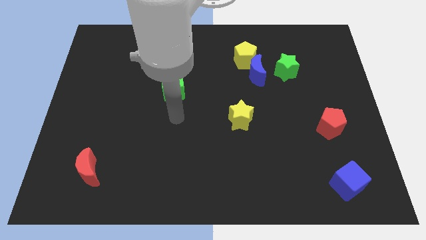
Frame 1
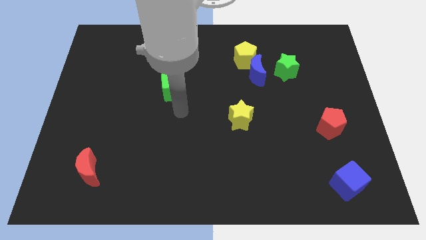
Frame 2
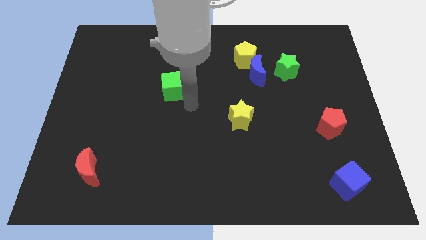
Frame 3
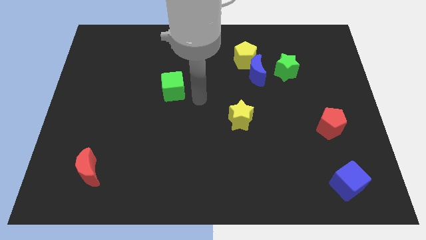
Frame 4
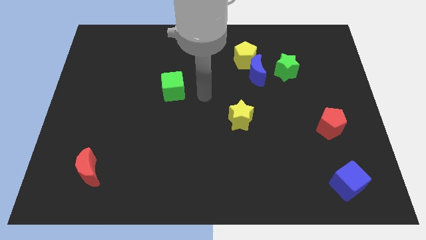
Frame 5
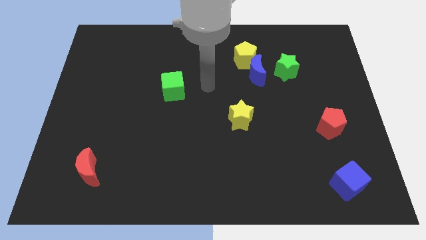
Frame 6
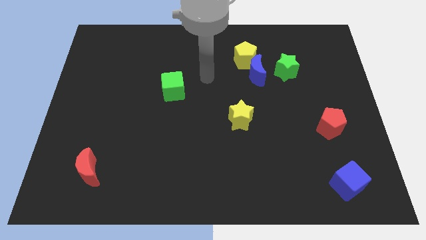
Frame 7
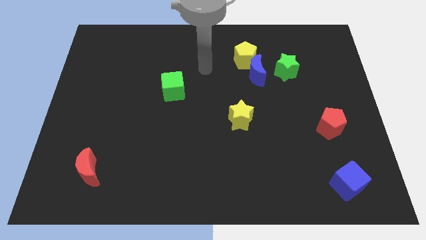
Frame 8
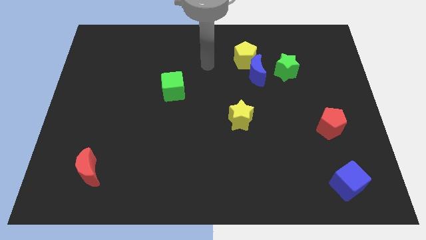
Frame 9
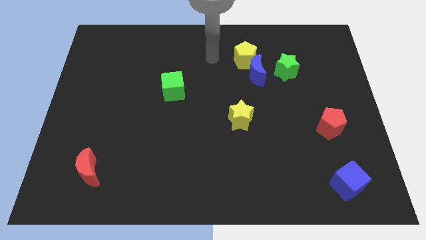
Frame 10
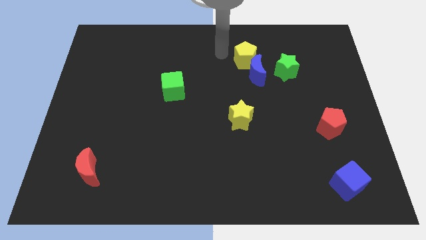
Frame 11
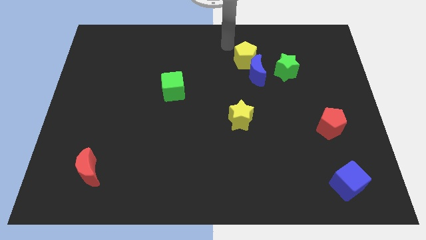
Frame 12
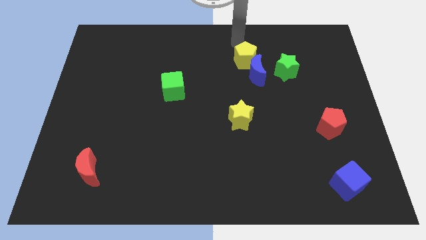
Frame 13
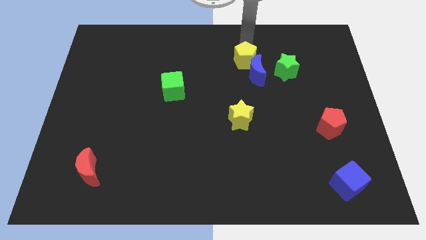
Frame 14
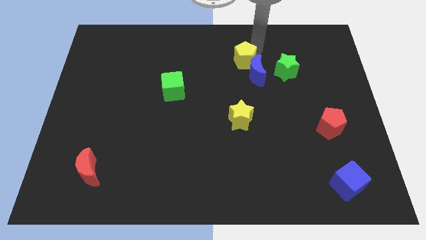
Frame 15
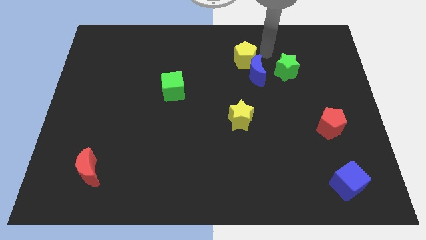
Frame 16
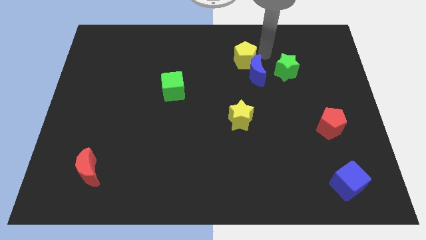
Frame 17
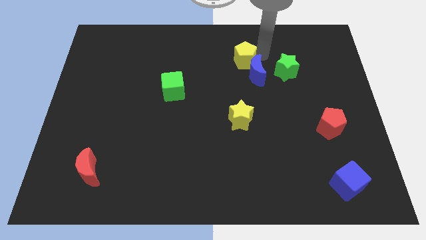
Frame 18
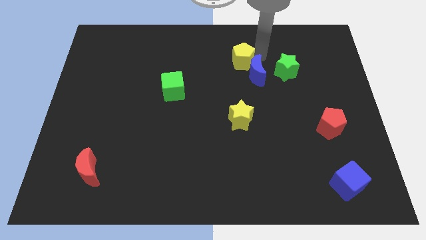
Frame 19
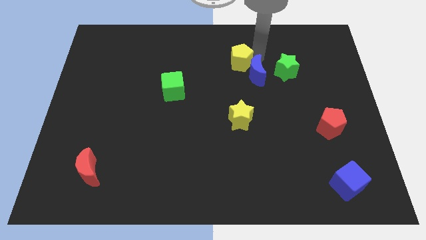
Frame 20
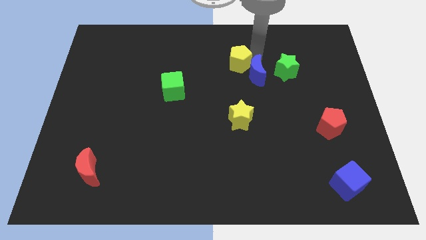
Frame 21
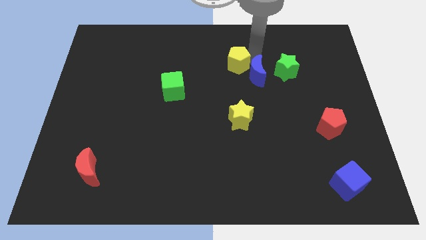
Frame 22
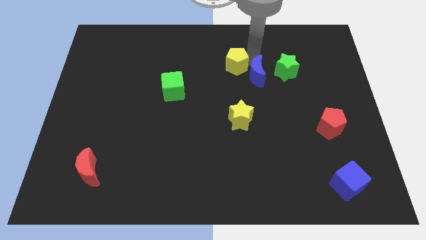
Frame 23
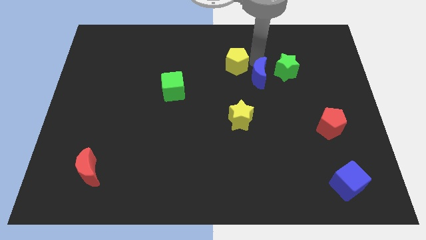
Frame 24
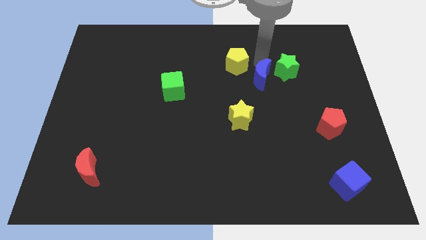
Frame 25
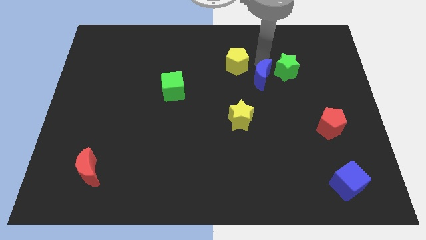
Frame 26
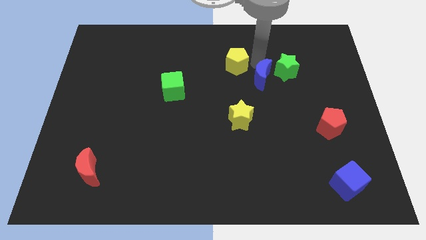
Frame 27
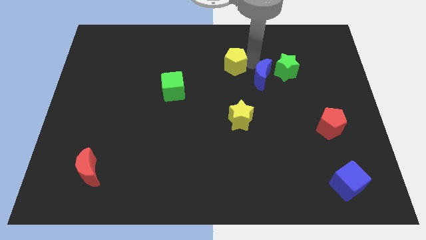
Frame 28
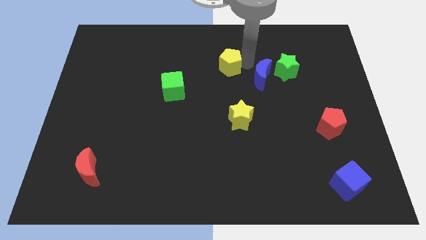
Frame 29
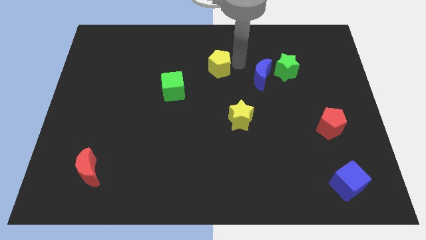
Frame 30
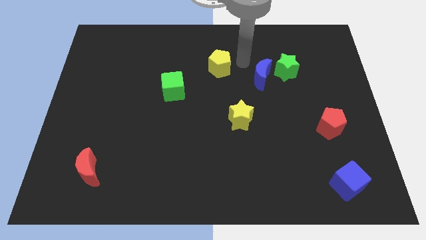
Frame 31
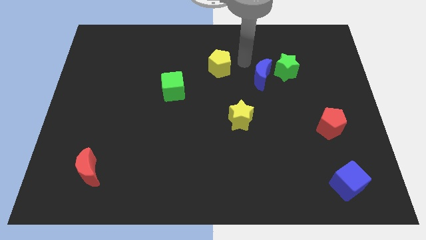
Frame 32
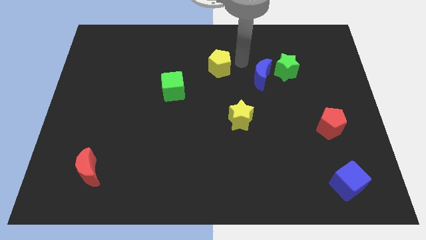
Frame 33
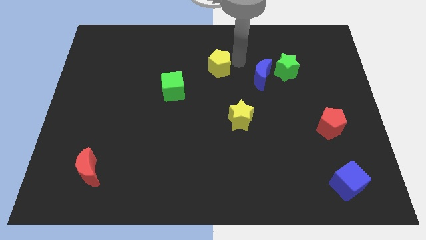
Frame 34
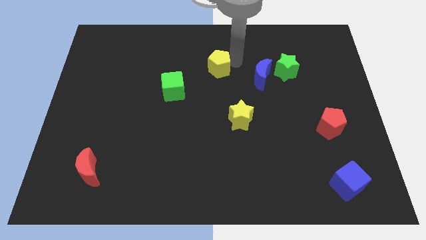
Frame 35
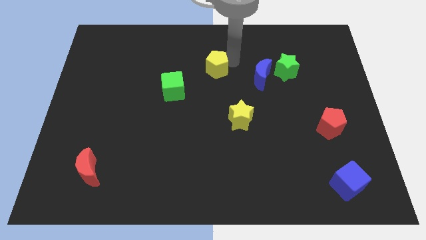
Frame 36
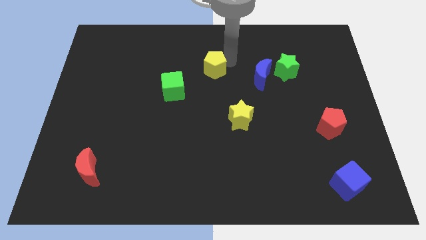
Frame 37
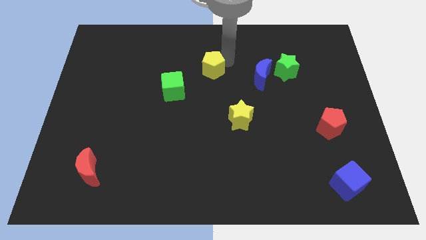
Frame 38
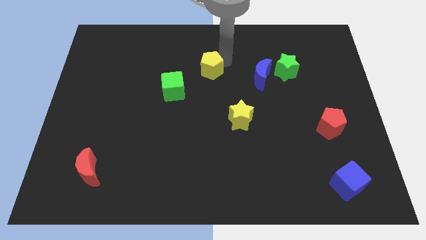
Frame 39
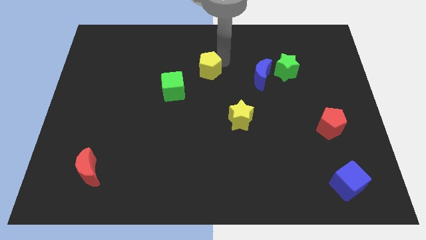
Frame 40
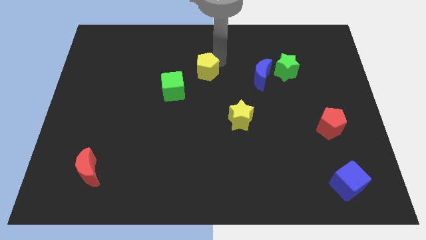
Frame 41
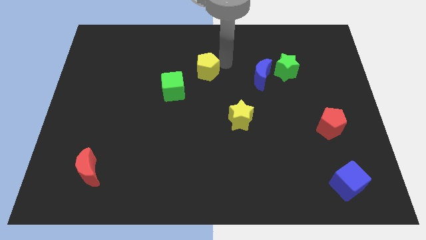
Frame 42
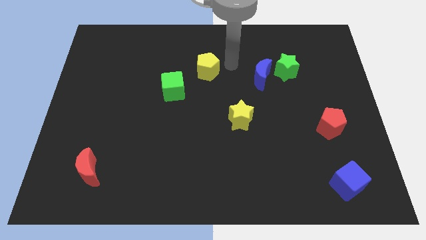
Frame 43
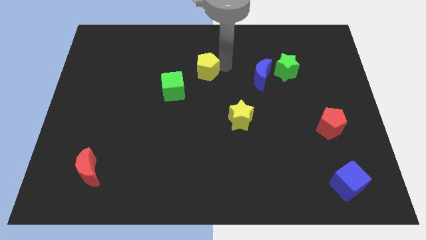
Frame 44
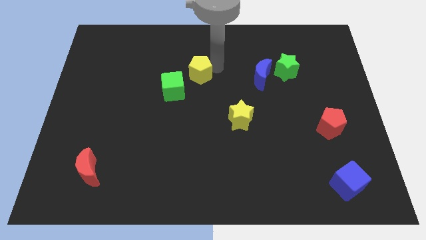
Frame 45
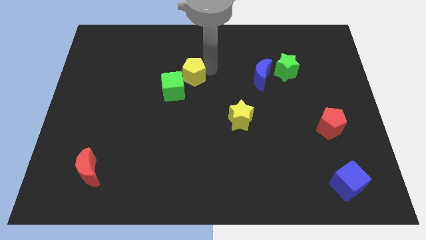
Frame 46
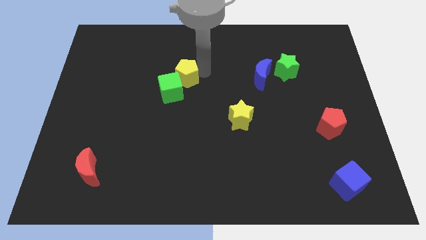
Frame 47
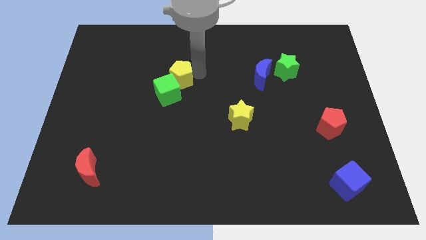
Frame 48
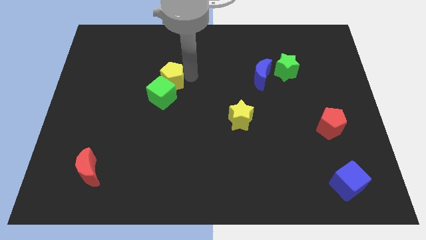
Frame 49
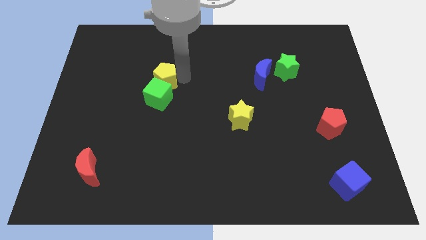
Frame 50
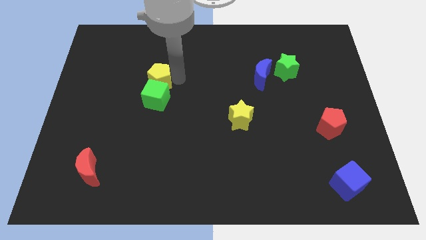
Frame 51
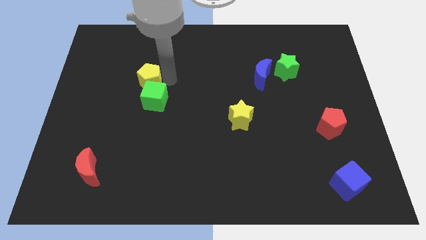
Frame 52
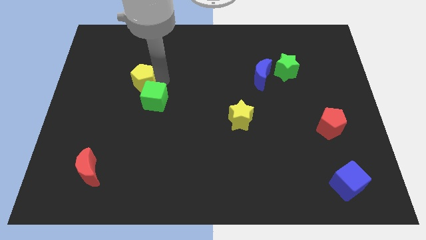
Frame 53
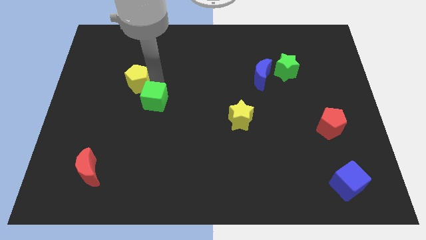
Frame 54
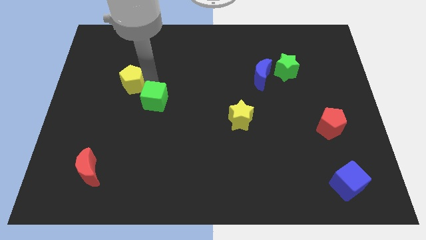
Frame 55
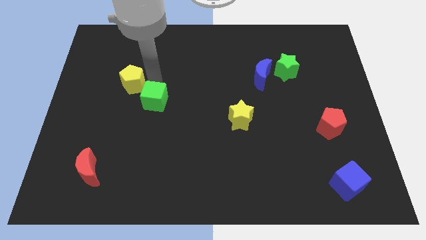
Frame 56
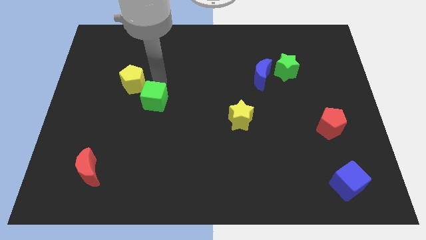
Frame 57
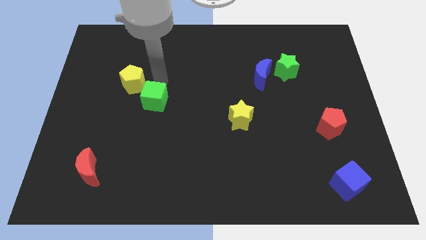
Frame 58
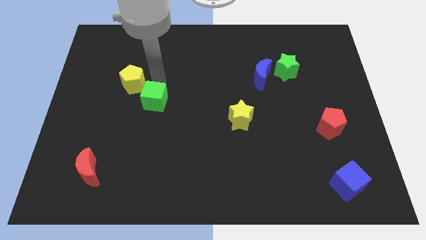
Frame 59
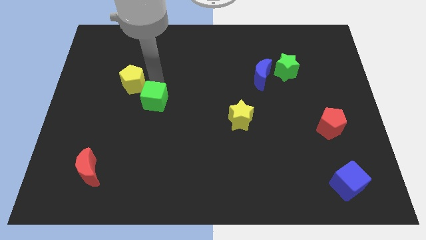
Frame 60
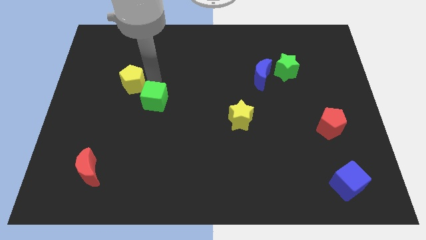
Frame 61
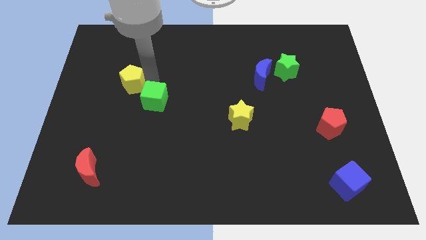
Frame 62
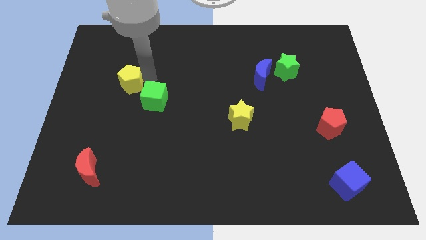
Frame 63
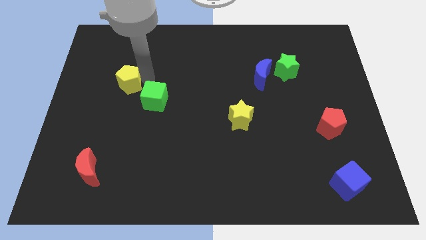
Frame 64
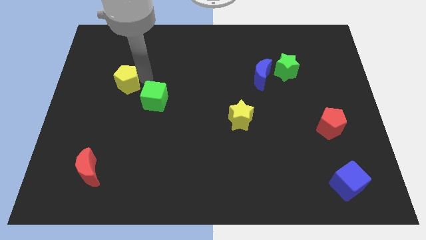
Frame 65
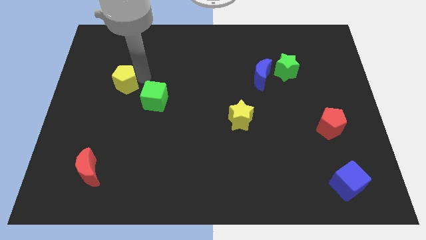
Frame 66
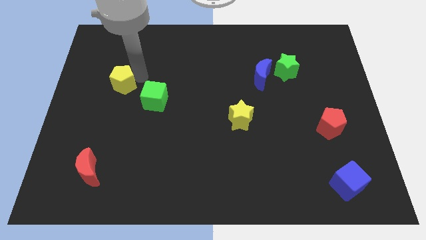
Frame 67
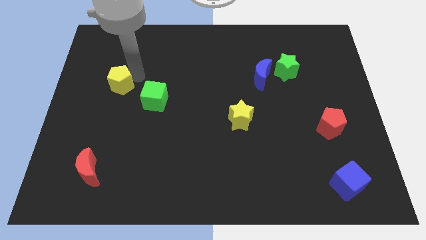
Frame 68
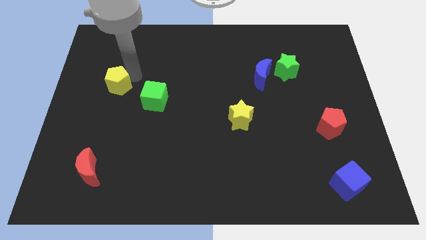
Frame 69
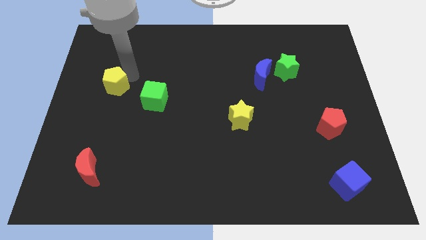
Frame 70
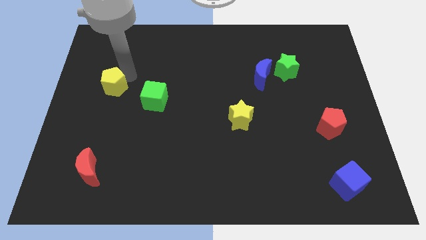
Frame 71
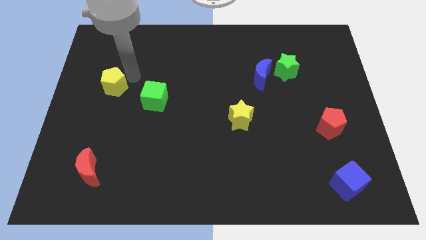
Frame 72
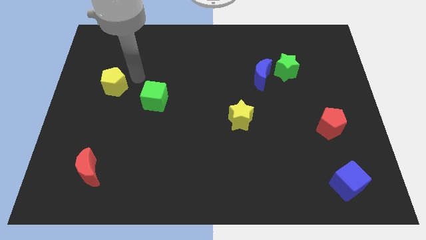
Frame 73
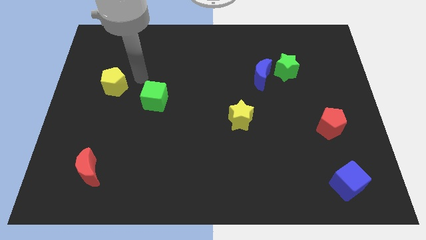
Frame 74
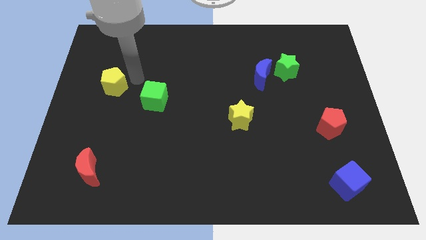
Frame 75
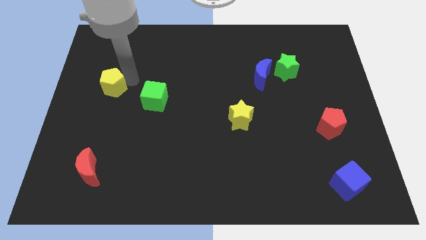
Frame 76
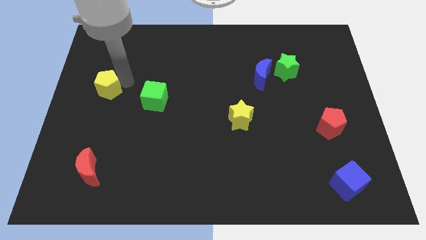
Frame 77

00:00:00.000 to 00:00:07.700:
put the yellow pentagon to the center left
